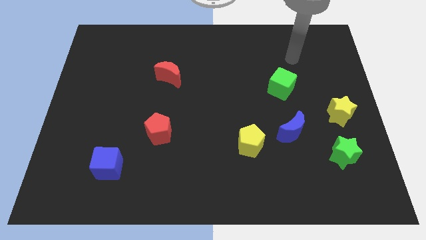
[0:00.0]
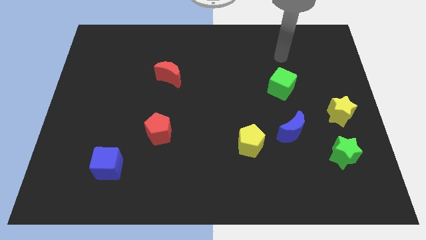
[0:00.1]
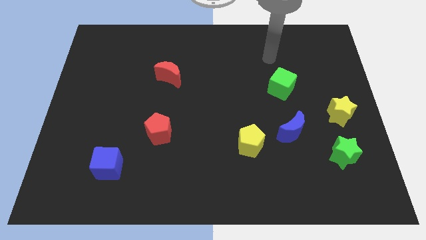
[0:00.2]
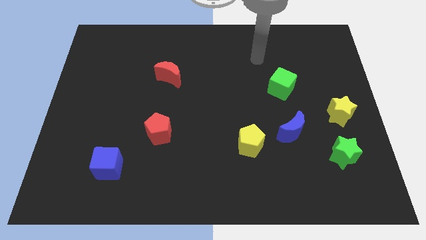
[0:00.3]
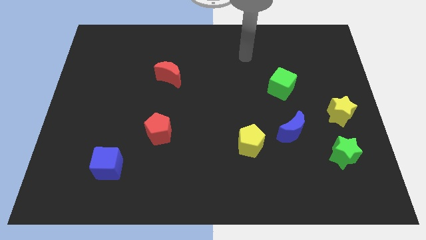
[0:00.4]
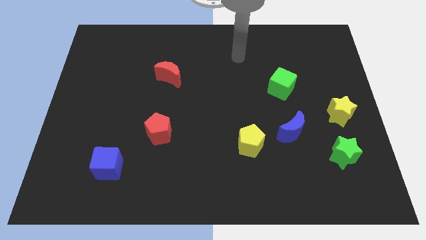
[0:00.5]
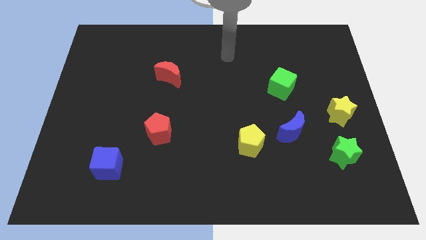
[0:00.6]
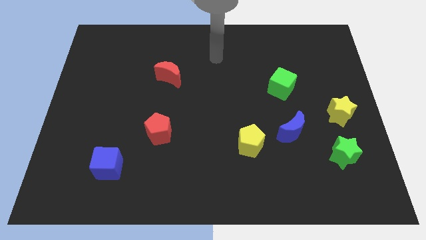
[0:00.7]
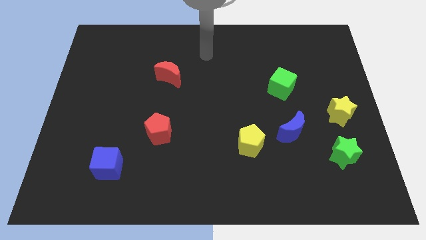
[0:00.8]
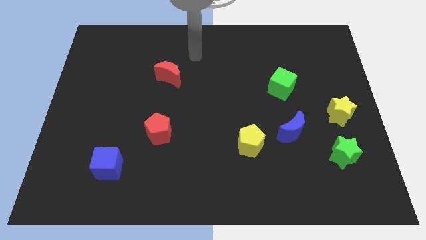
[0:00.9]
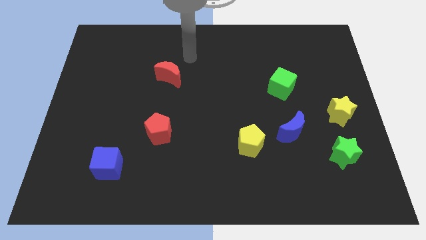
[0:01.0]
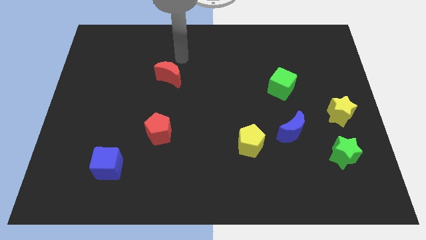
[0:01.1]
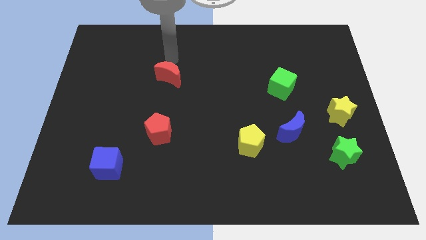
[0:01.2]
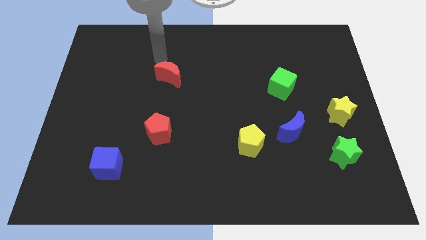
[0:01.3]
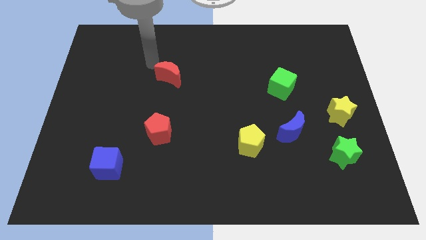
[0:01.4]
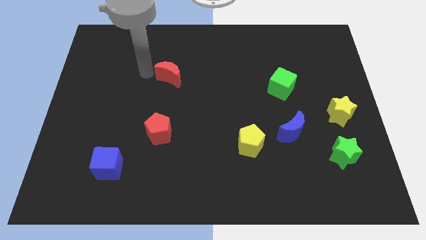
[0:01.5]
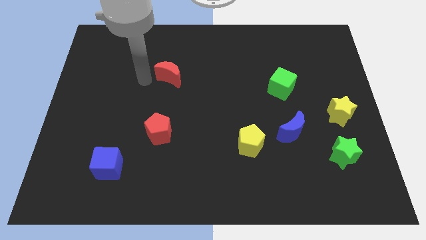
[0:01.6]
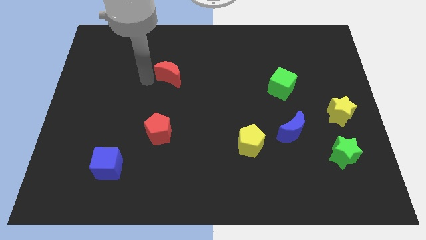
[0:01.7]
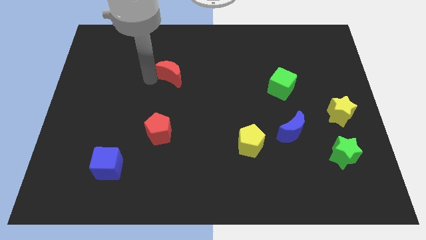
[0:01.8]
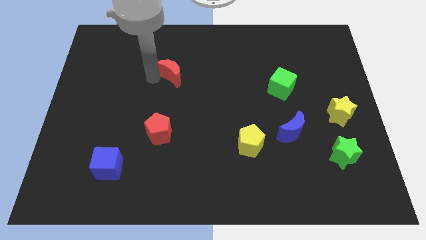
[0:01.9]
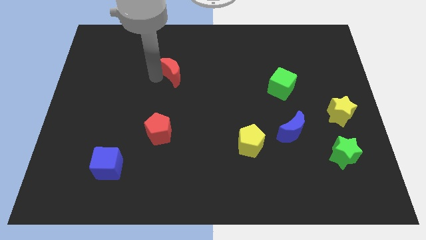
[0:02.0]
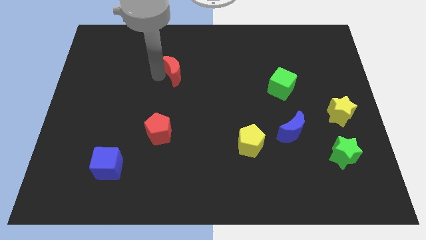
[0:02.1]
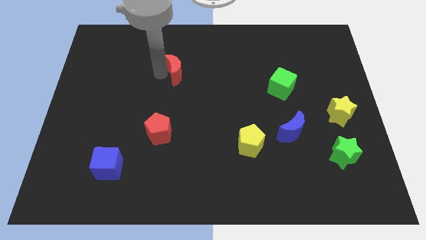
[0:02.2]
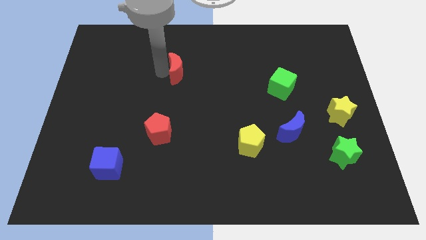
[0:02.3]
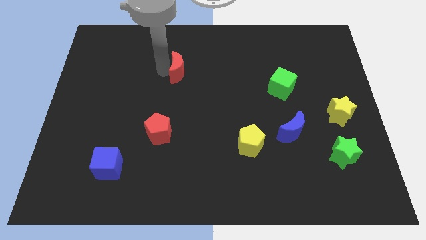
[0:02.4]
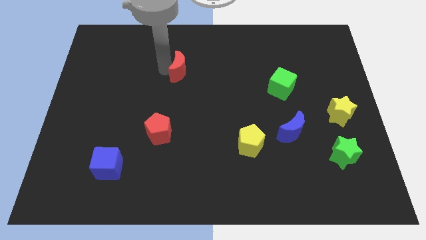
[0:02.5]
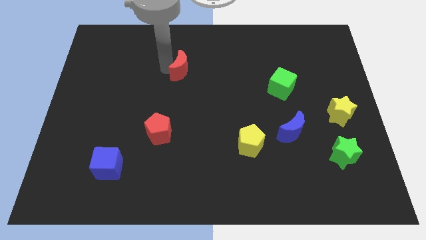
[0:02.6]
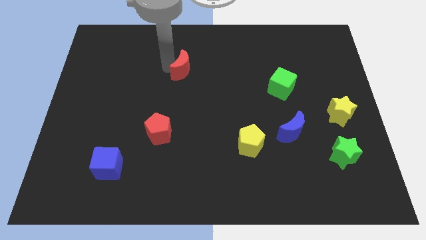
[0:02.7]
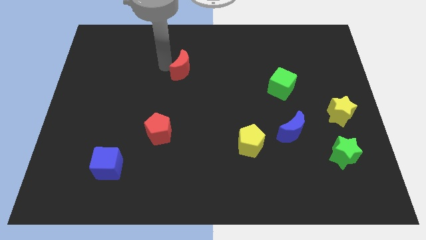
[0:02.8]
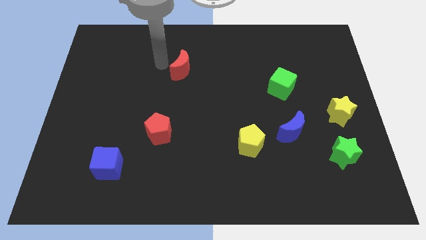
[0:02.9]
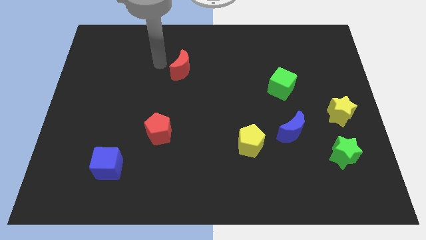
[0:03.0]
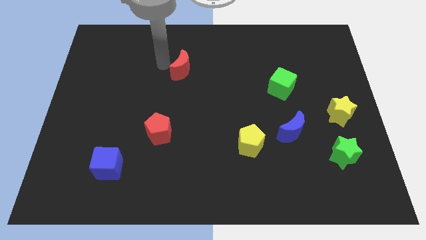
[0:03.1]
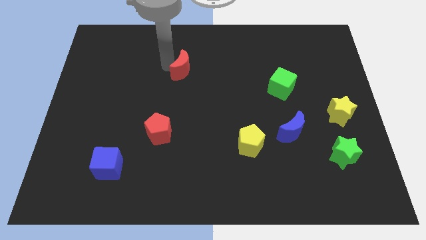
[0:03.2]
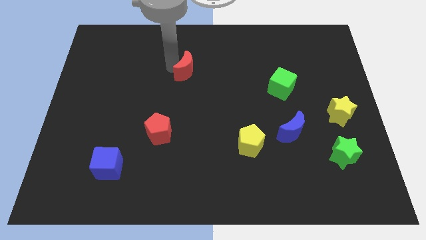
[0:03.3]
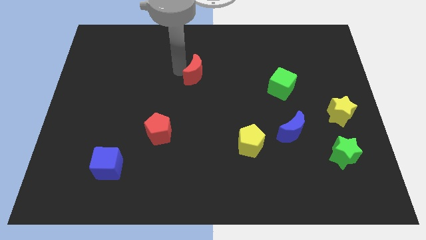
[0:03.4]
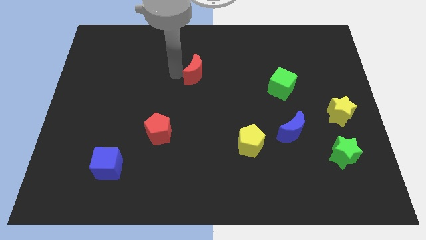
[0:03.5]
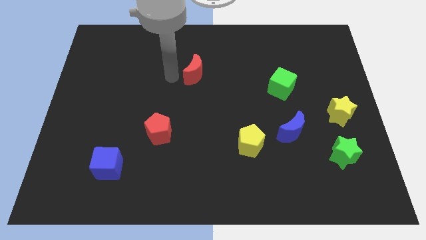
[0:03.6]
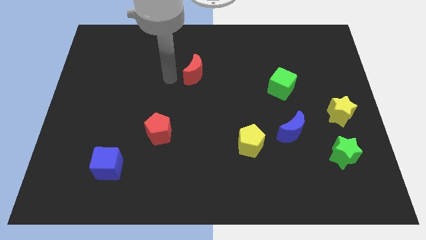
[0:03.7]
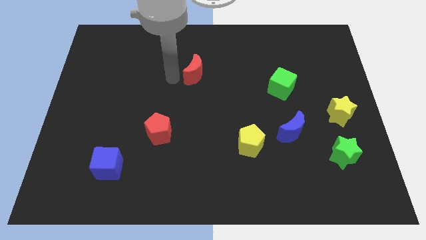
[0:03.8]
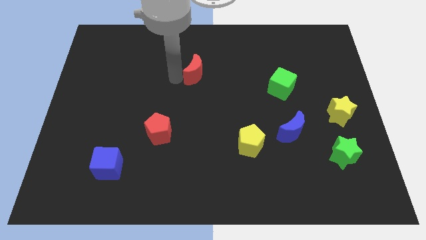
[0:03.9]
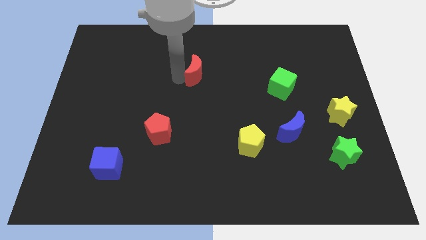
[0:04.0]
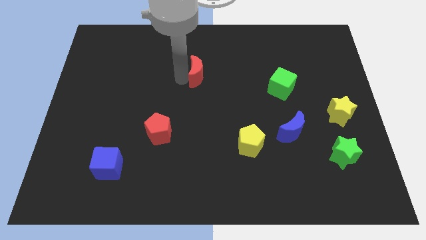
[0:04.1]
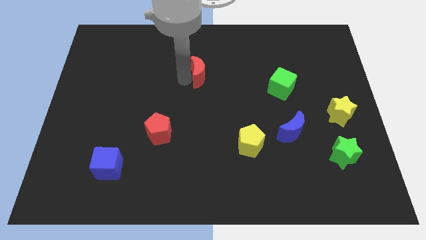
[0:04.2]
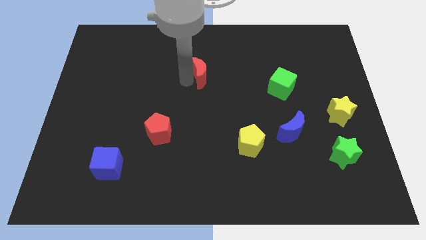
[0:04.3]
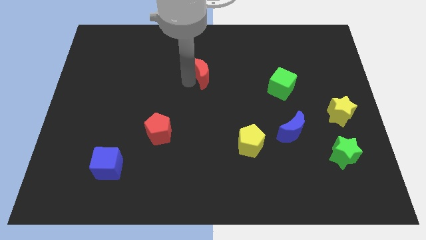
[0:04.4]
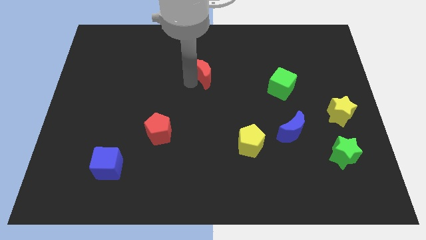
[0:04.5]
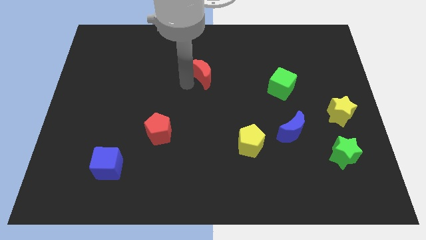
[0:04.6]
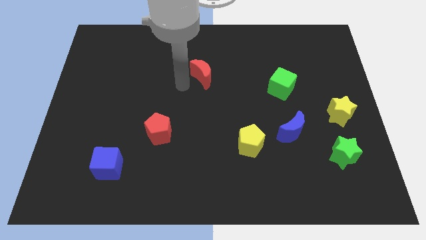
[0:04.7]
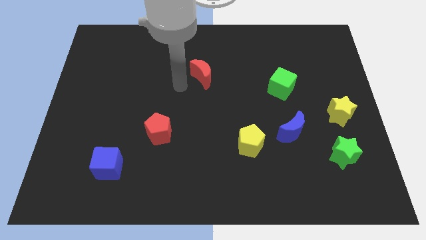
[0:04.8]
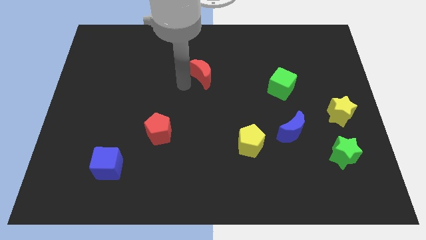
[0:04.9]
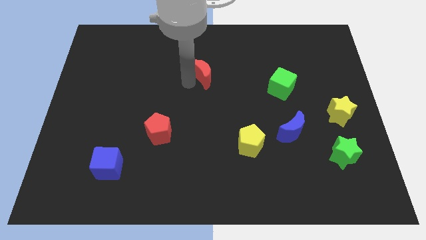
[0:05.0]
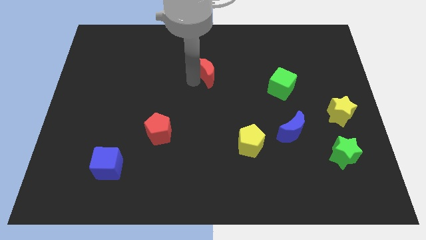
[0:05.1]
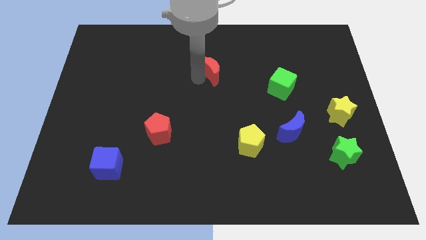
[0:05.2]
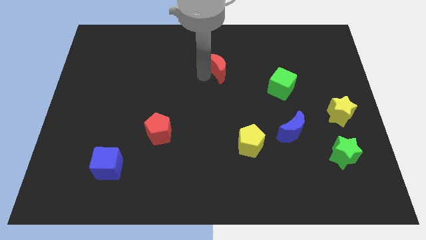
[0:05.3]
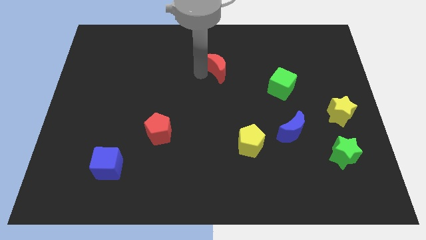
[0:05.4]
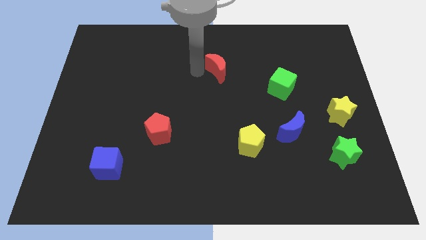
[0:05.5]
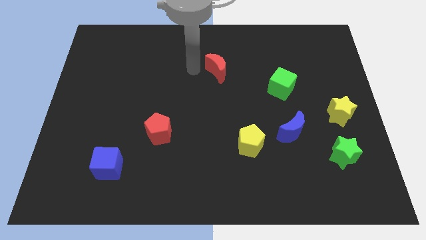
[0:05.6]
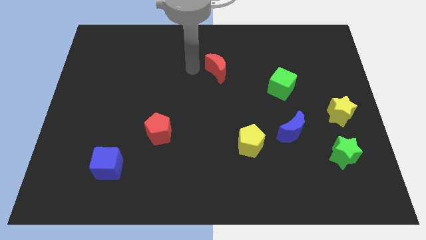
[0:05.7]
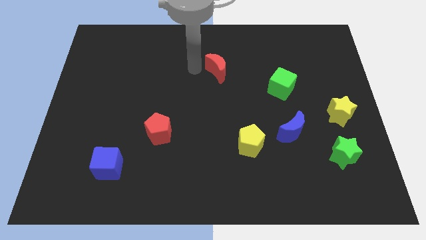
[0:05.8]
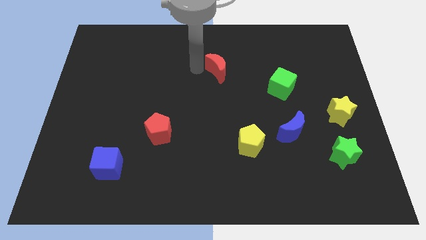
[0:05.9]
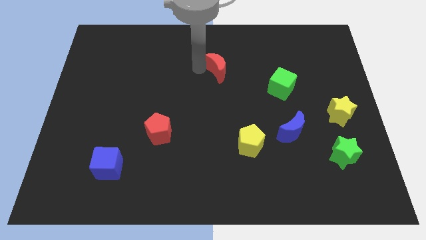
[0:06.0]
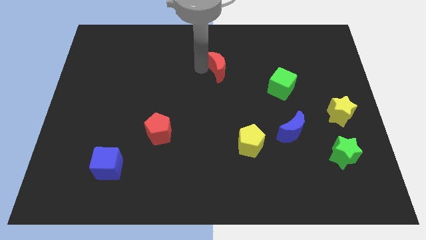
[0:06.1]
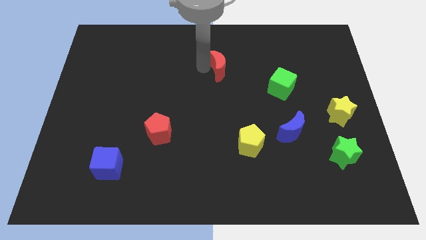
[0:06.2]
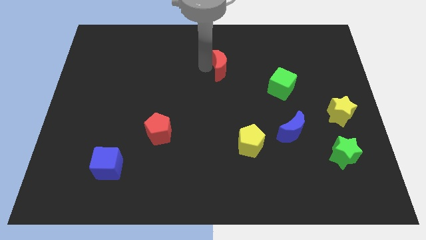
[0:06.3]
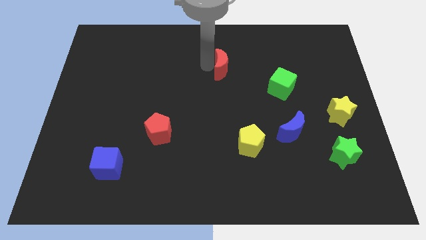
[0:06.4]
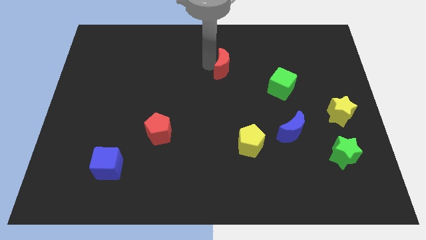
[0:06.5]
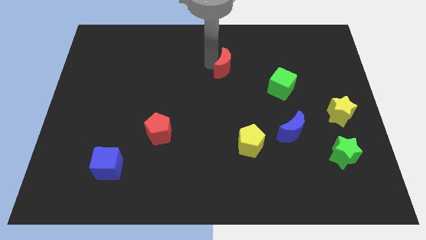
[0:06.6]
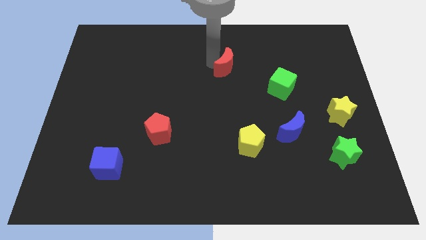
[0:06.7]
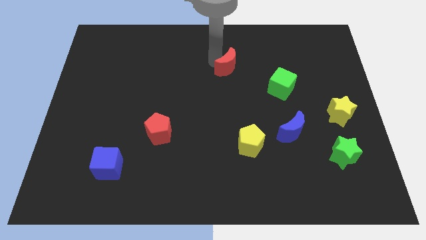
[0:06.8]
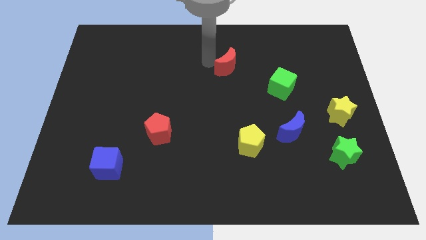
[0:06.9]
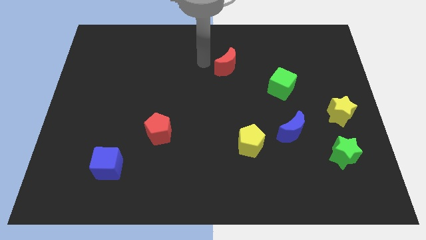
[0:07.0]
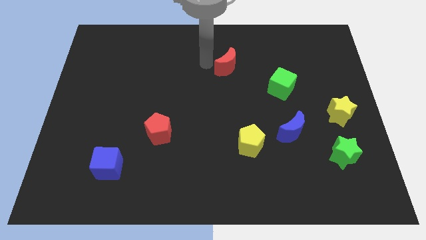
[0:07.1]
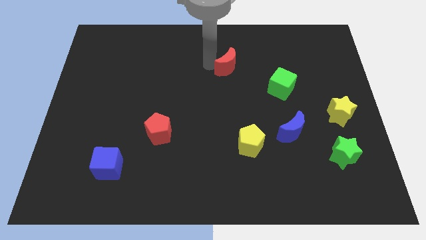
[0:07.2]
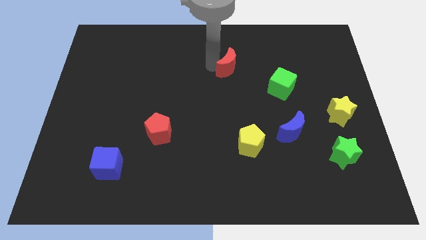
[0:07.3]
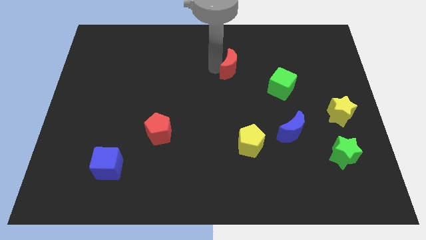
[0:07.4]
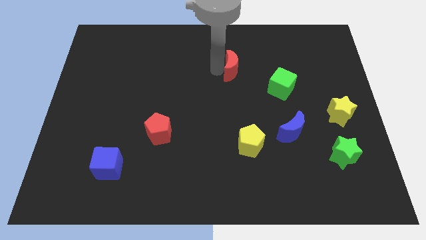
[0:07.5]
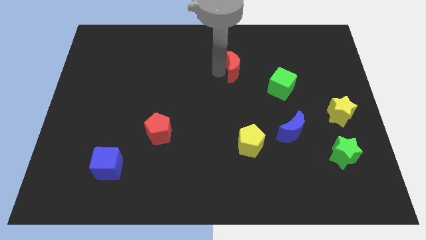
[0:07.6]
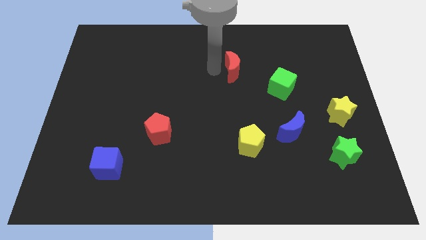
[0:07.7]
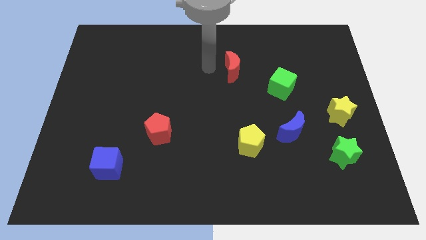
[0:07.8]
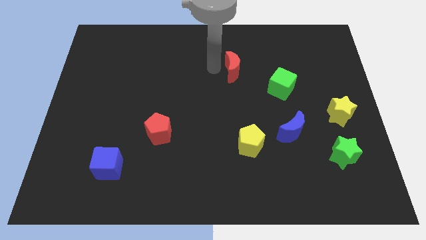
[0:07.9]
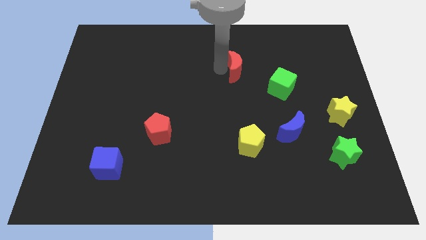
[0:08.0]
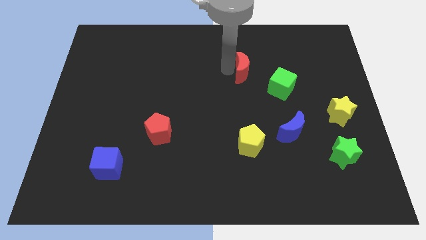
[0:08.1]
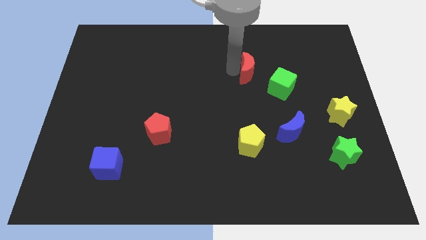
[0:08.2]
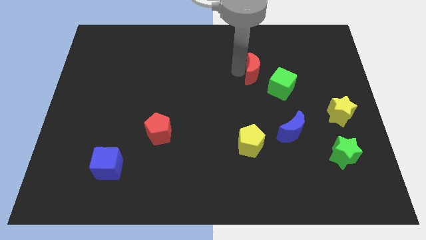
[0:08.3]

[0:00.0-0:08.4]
move the red moon right
